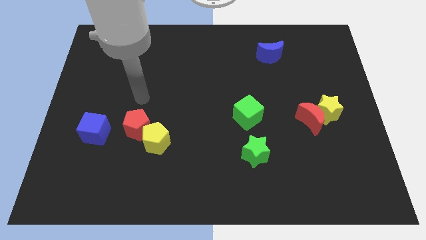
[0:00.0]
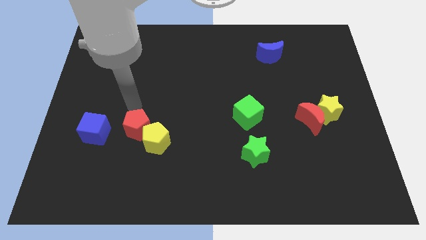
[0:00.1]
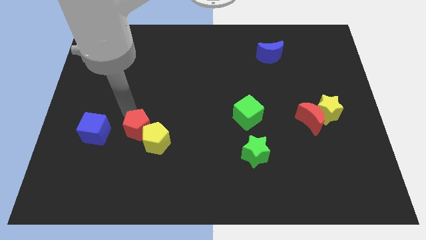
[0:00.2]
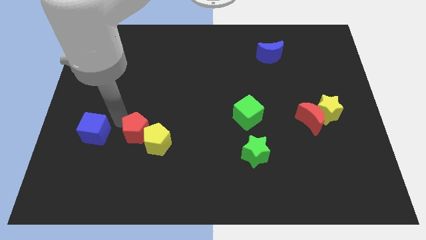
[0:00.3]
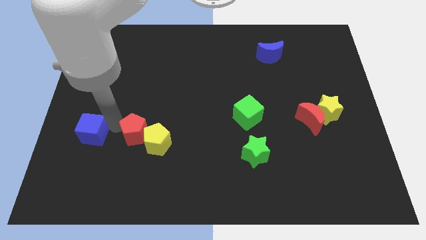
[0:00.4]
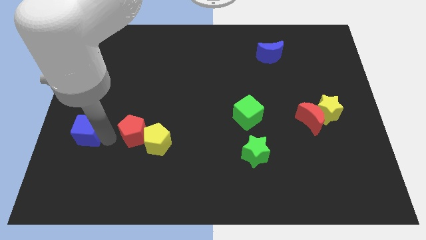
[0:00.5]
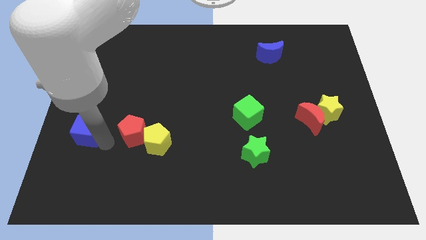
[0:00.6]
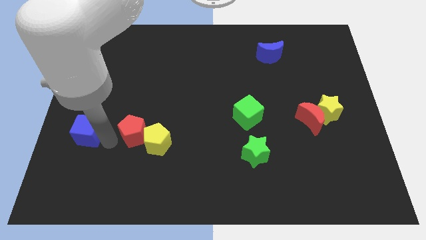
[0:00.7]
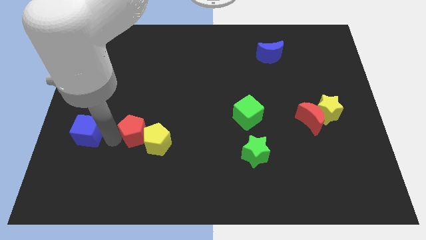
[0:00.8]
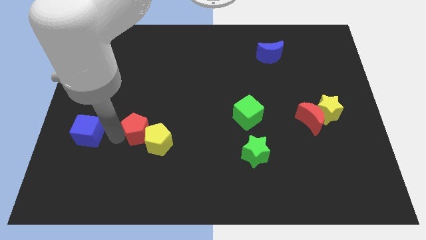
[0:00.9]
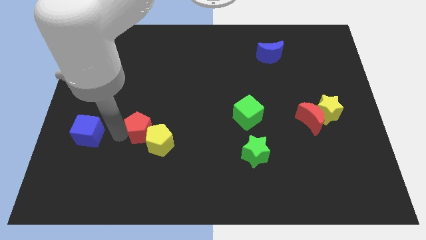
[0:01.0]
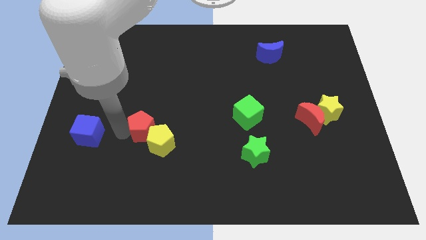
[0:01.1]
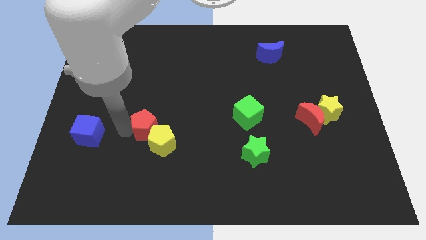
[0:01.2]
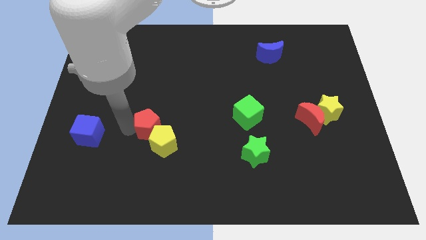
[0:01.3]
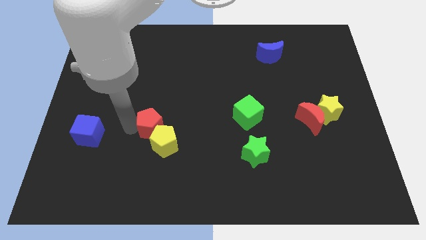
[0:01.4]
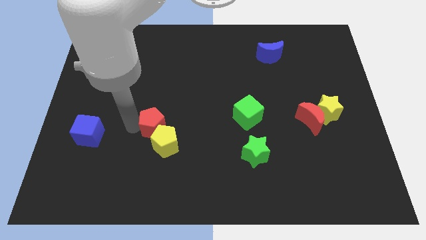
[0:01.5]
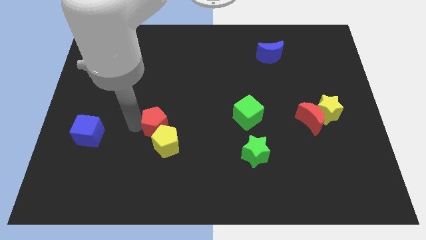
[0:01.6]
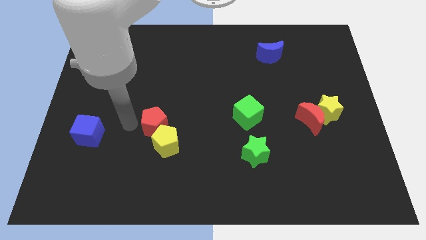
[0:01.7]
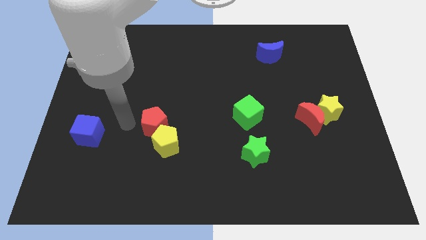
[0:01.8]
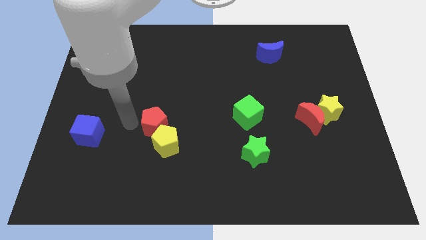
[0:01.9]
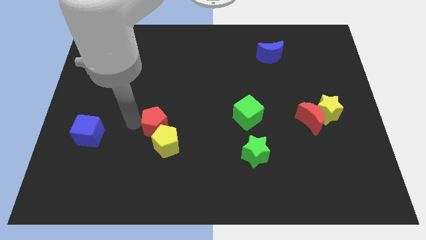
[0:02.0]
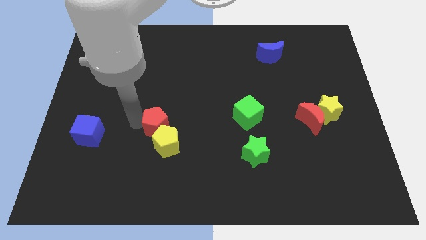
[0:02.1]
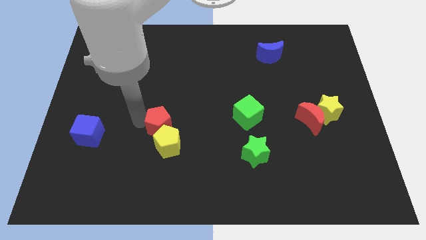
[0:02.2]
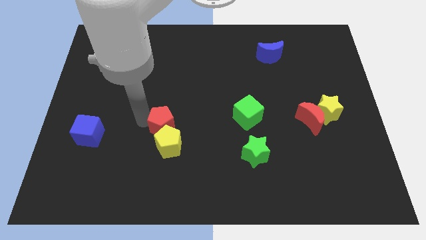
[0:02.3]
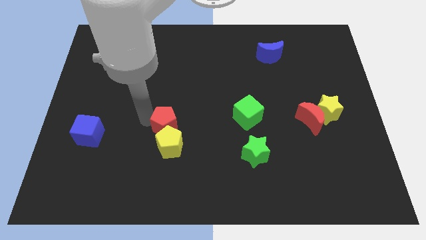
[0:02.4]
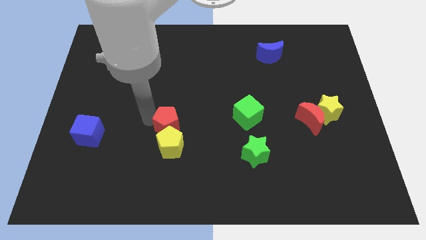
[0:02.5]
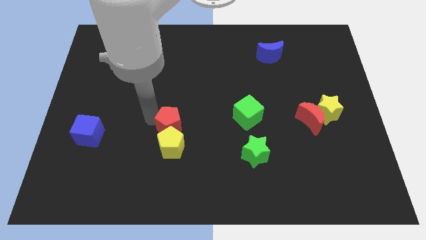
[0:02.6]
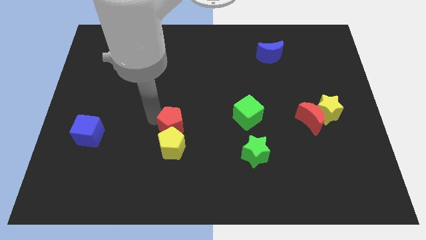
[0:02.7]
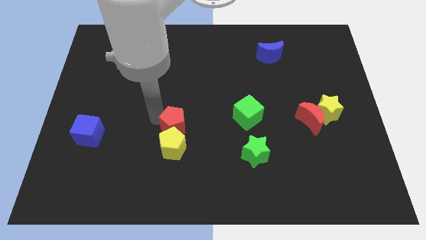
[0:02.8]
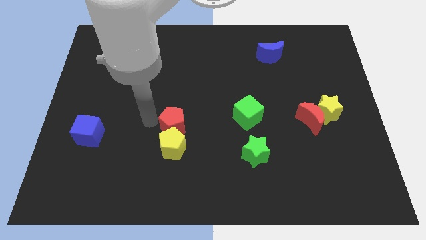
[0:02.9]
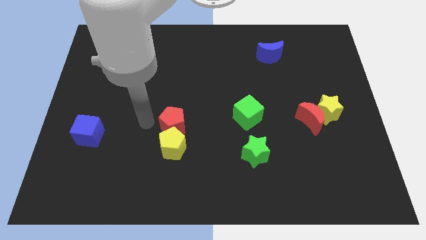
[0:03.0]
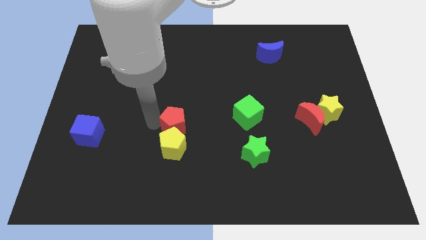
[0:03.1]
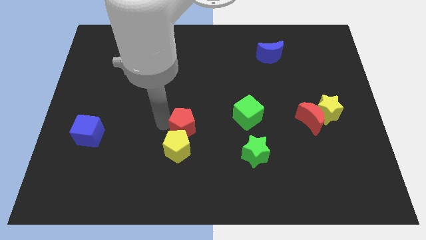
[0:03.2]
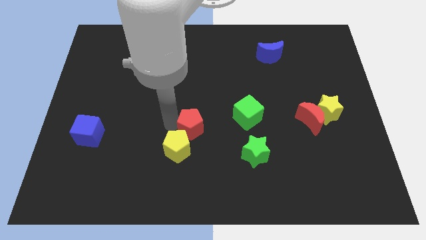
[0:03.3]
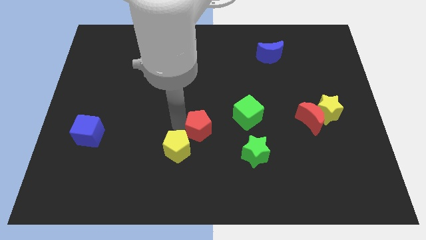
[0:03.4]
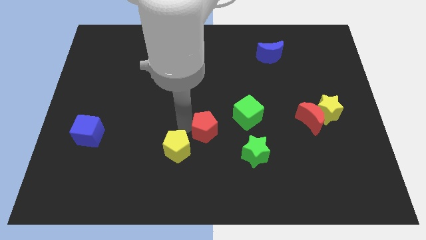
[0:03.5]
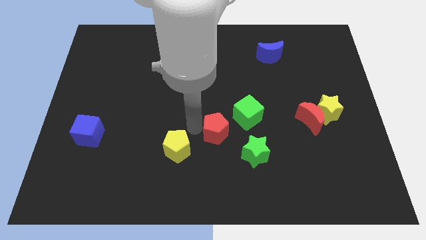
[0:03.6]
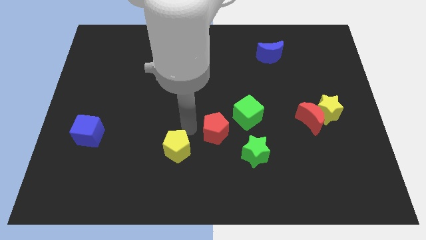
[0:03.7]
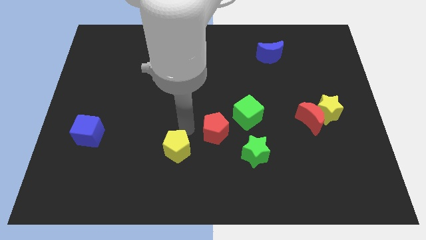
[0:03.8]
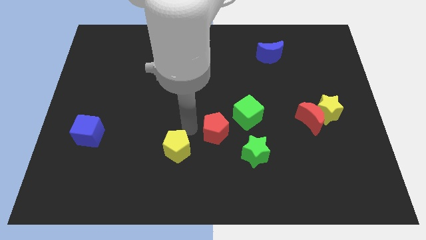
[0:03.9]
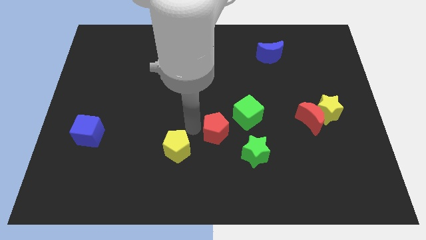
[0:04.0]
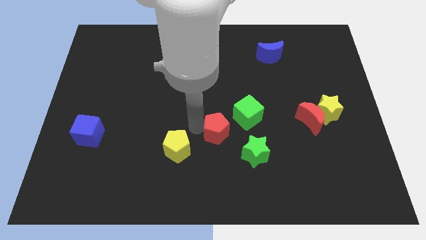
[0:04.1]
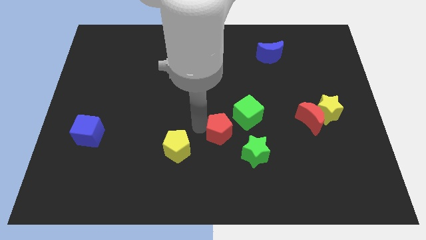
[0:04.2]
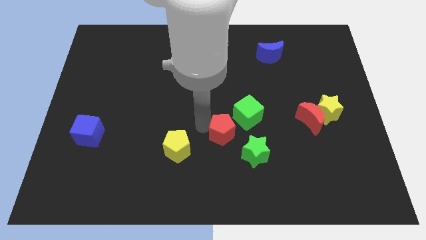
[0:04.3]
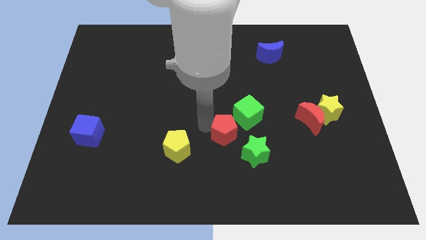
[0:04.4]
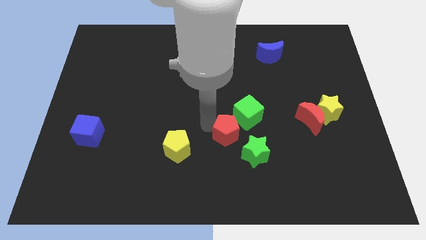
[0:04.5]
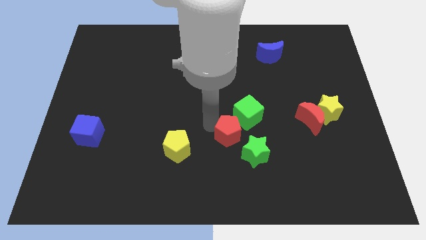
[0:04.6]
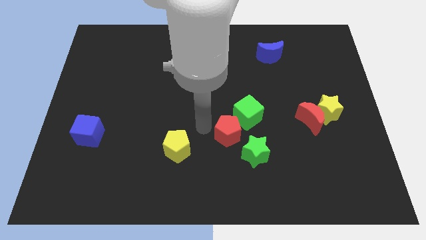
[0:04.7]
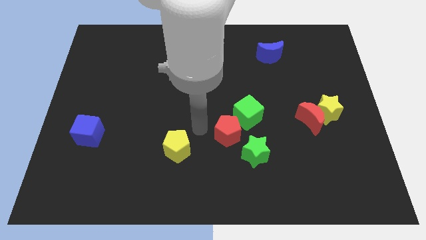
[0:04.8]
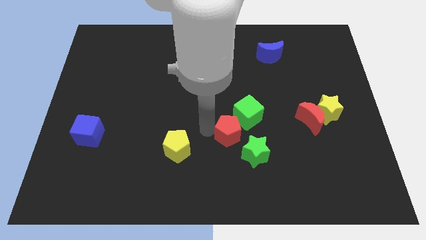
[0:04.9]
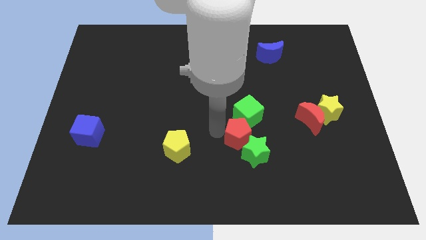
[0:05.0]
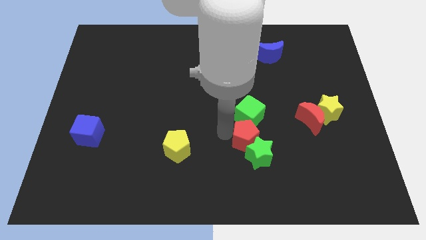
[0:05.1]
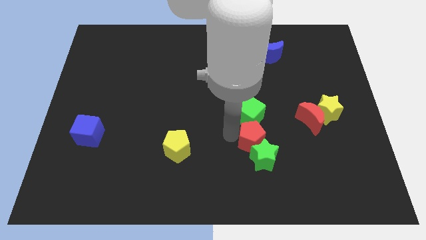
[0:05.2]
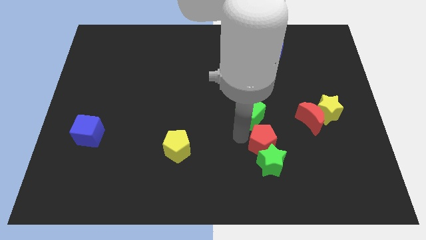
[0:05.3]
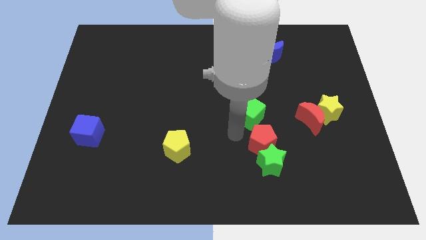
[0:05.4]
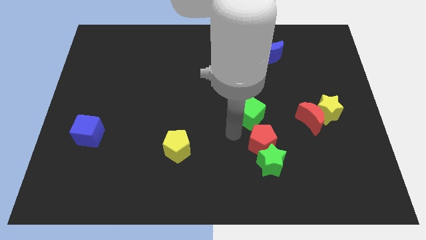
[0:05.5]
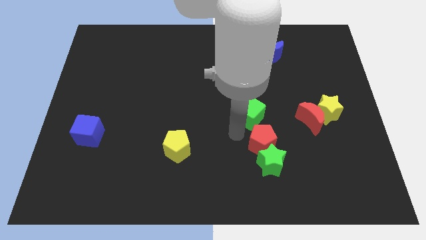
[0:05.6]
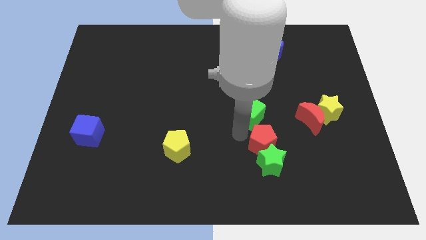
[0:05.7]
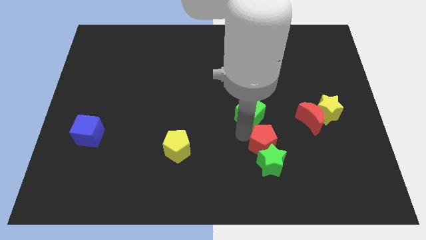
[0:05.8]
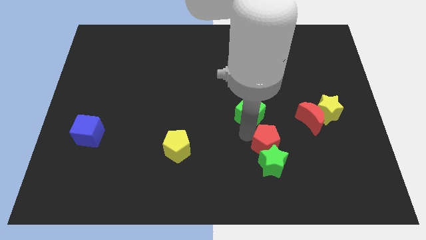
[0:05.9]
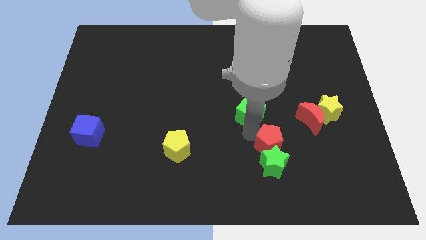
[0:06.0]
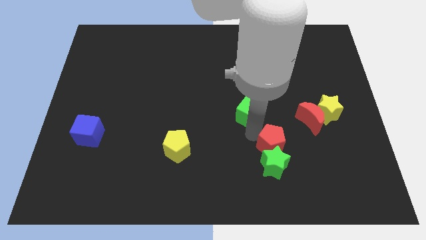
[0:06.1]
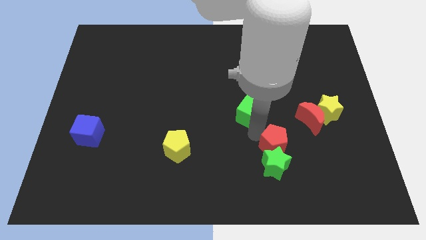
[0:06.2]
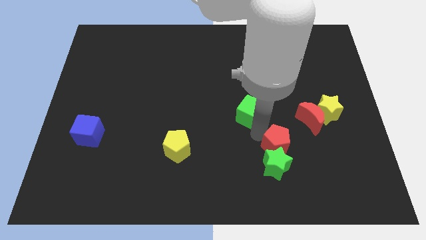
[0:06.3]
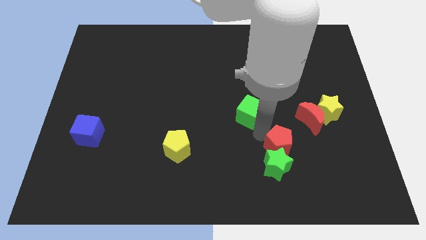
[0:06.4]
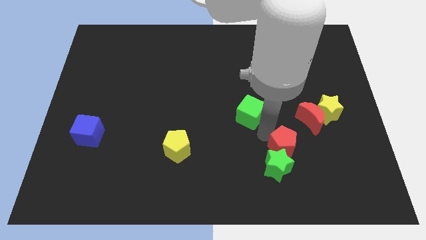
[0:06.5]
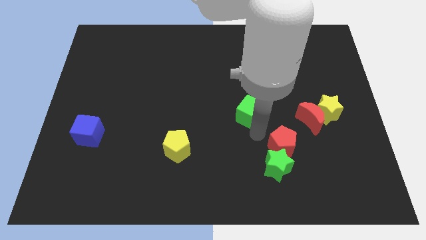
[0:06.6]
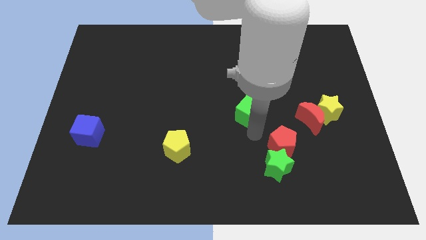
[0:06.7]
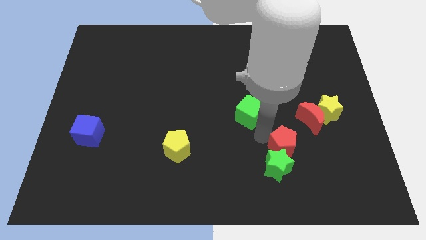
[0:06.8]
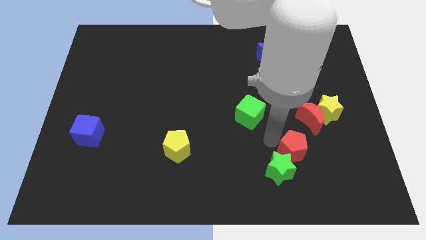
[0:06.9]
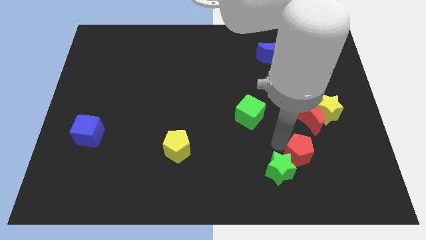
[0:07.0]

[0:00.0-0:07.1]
move the red pentagon to the bottom side of the red moon
